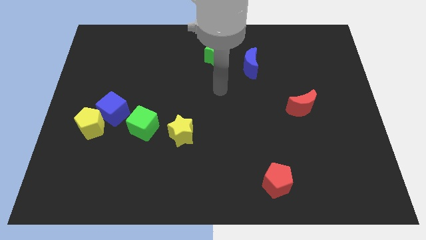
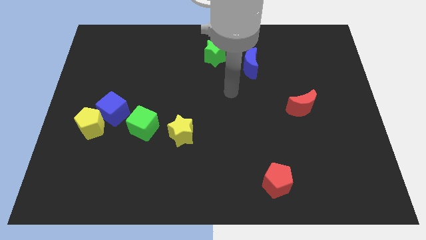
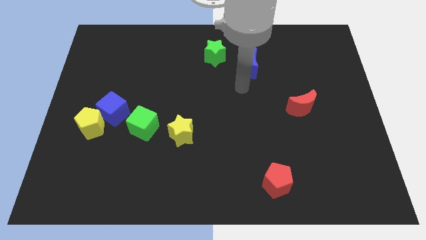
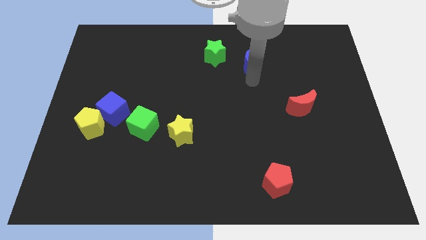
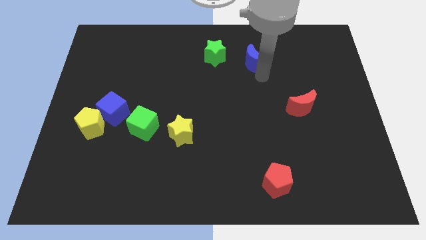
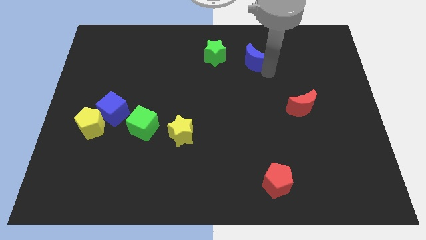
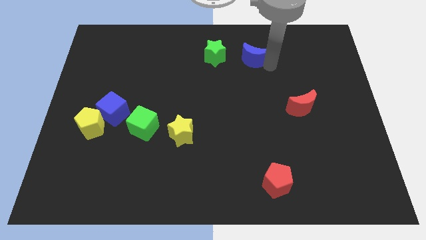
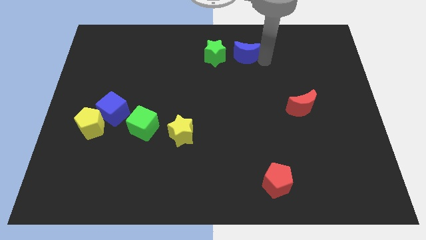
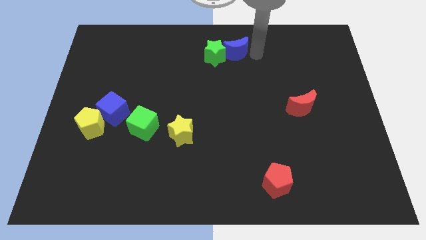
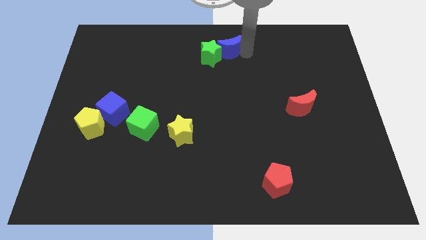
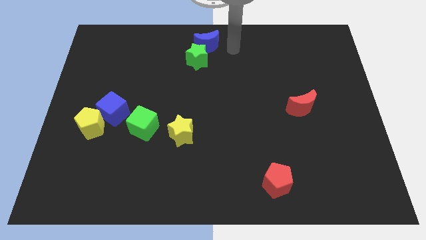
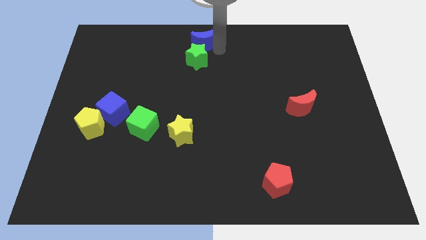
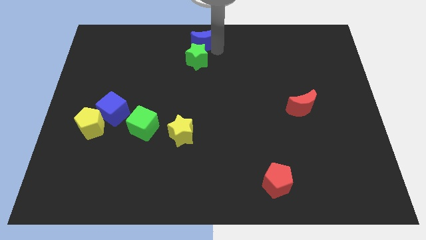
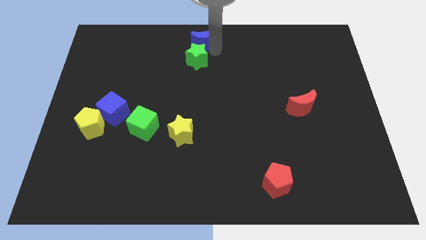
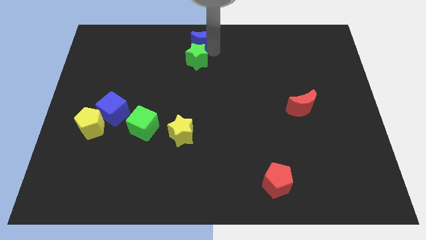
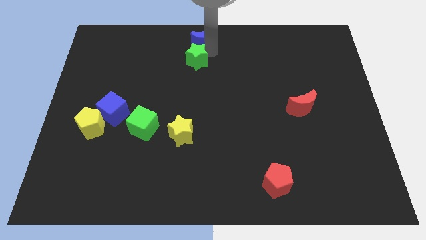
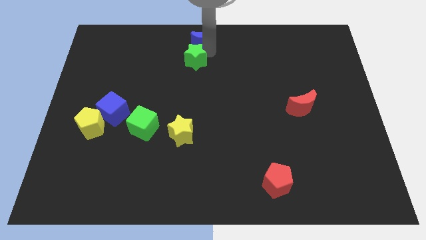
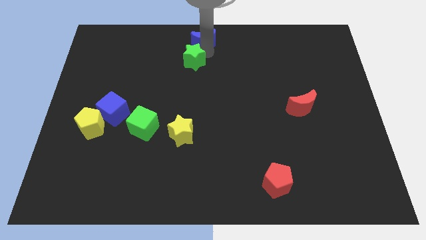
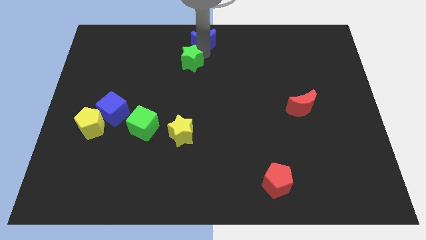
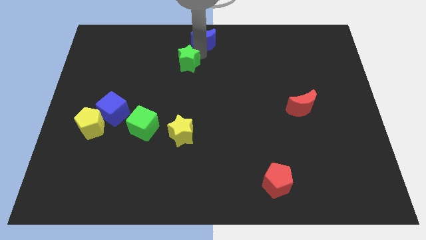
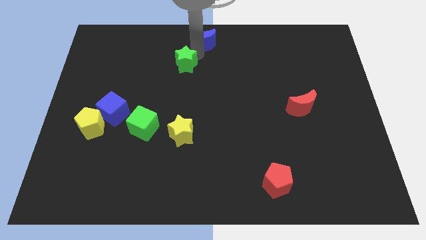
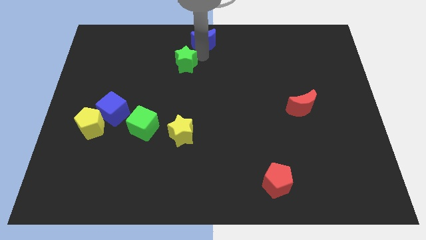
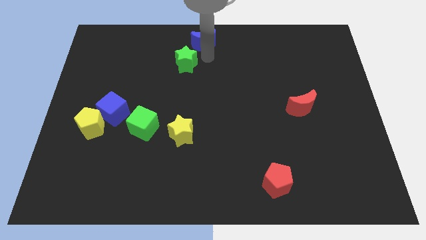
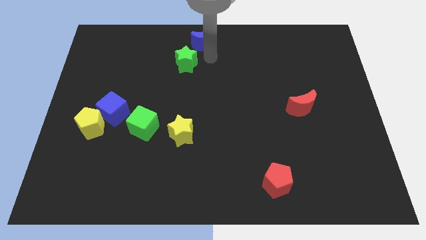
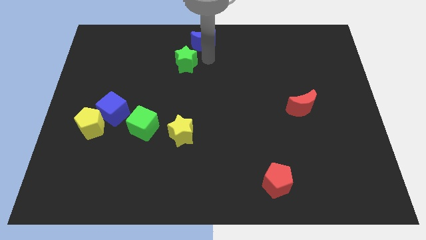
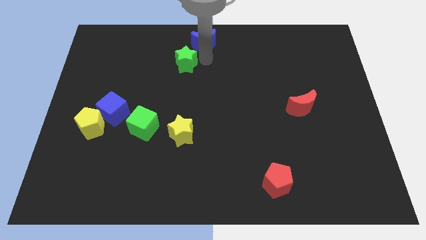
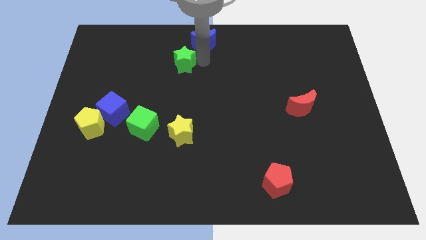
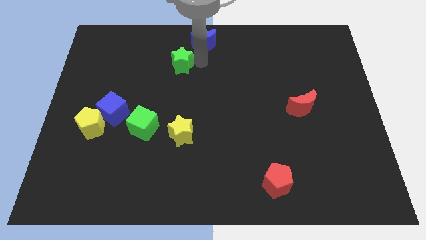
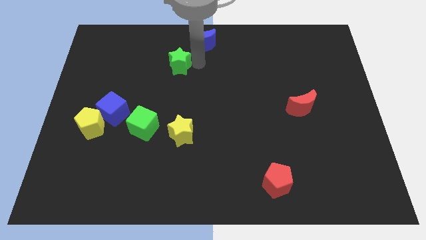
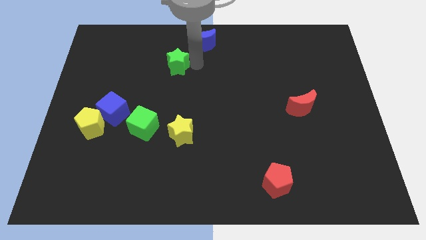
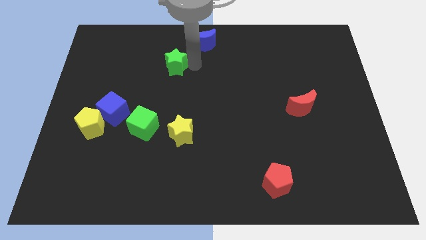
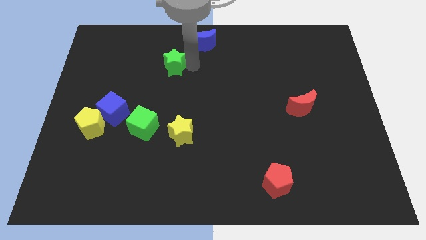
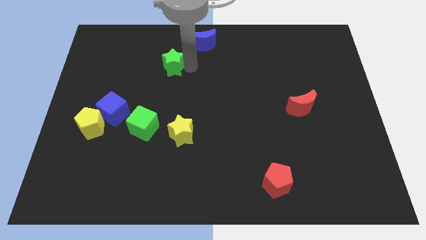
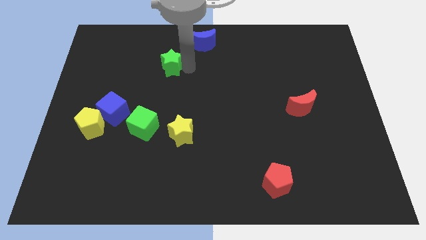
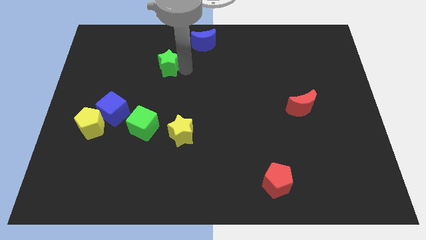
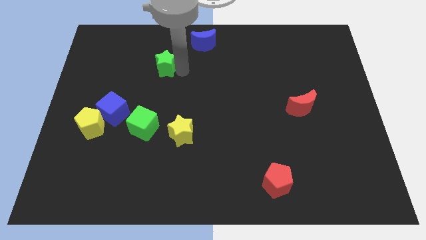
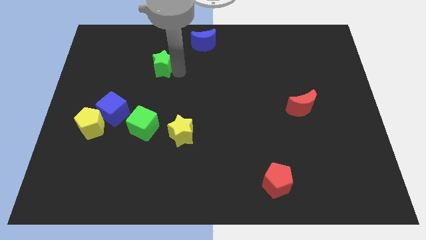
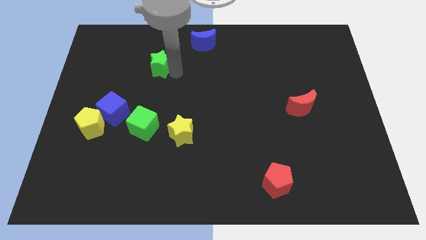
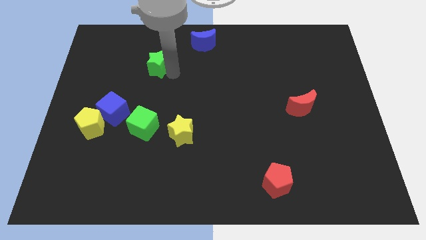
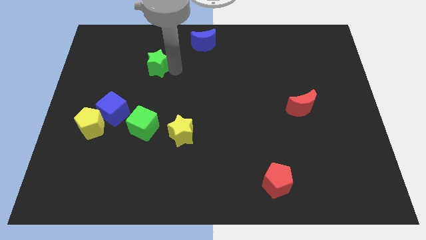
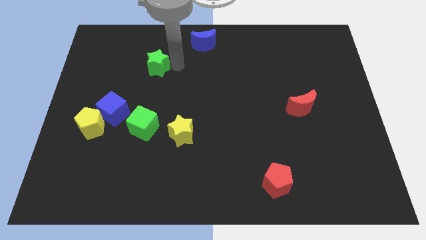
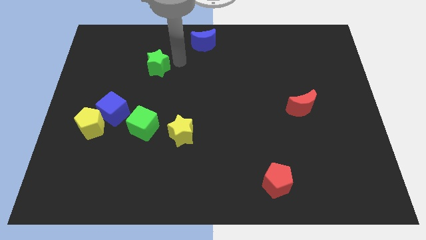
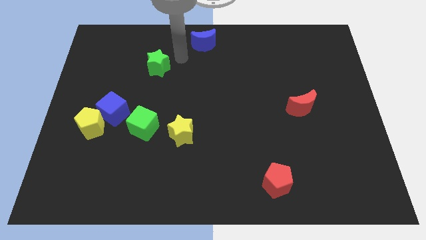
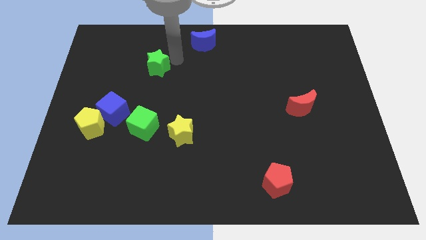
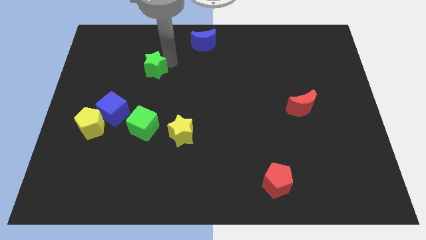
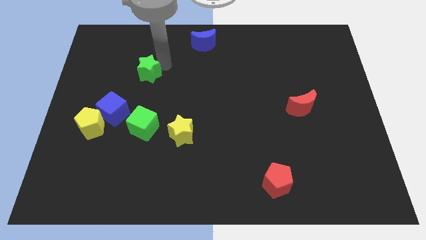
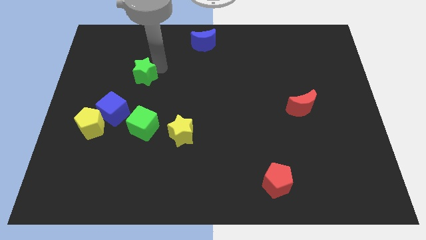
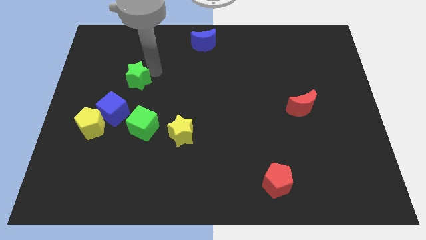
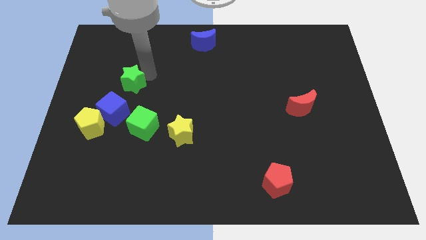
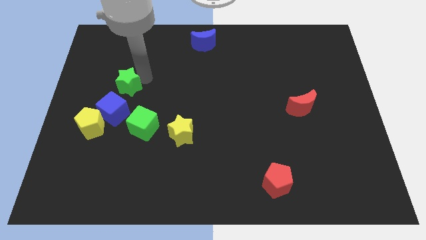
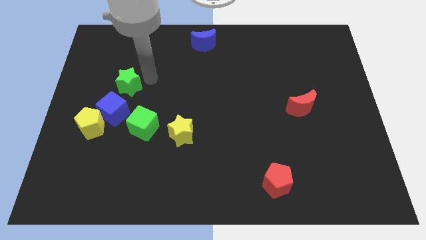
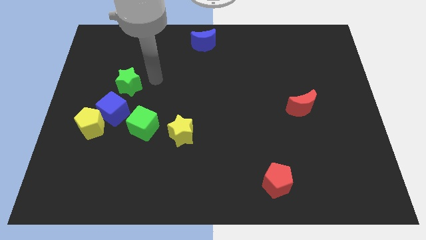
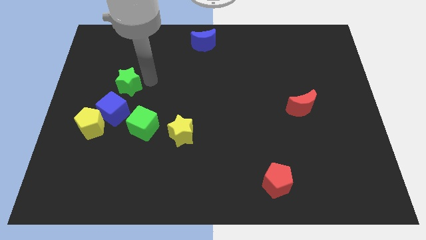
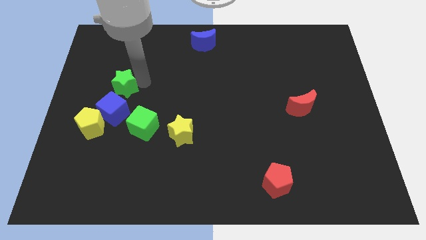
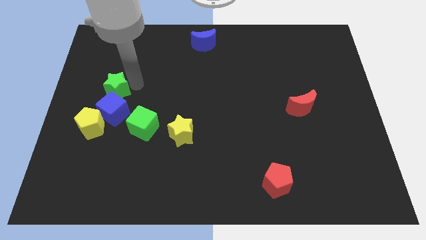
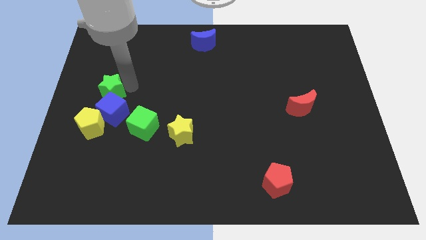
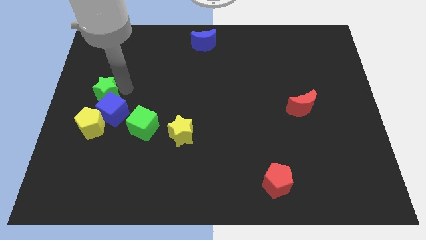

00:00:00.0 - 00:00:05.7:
move the green star to the center left
